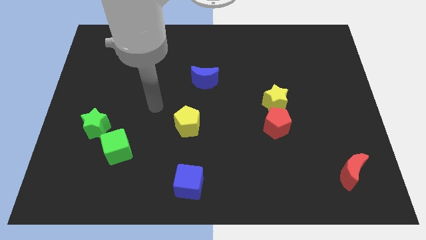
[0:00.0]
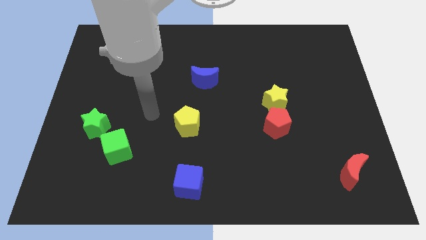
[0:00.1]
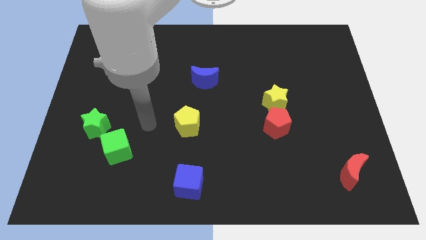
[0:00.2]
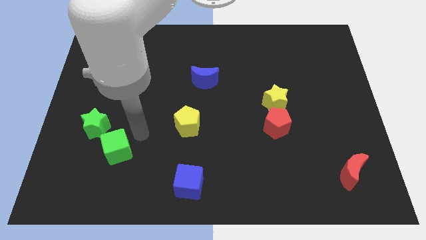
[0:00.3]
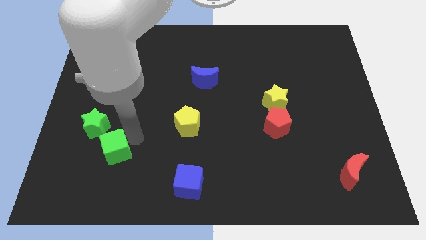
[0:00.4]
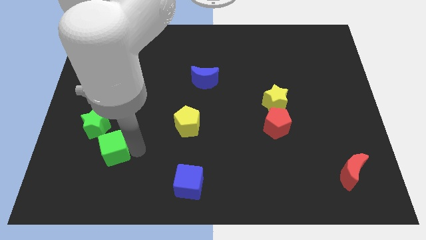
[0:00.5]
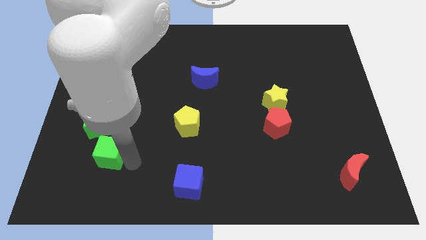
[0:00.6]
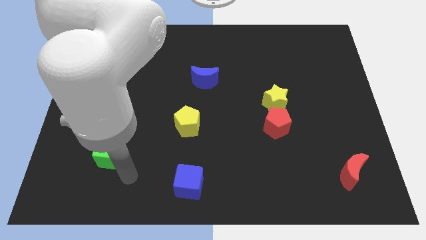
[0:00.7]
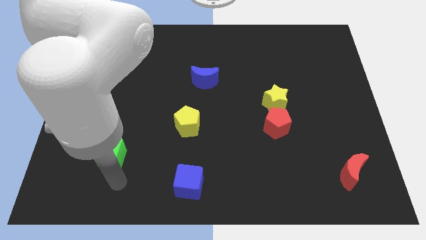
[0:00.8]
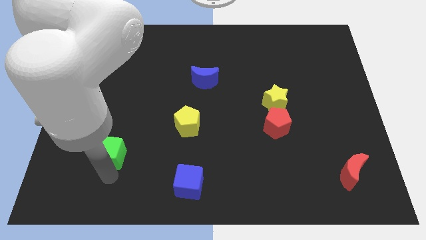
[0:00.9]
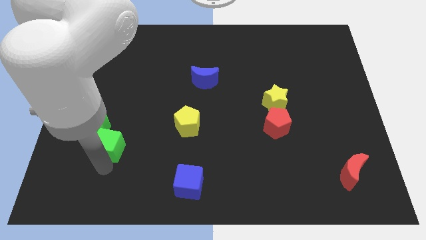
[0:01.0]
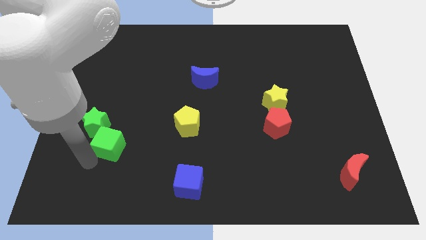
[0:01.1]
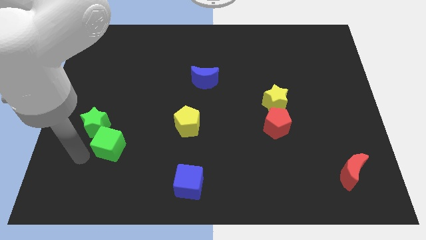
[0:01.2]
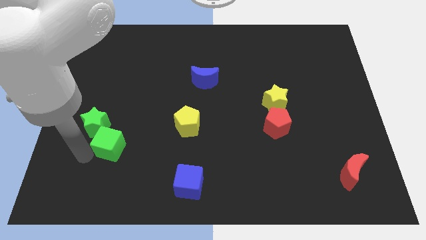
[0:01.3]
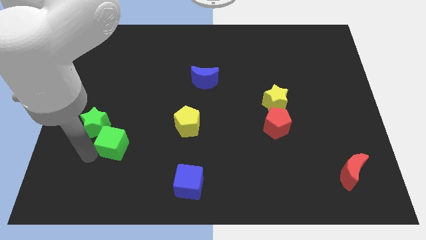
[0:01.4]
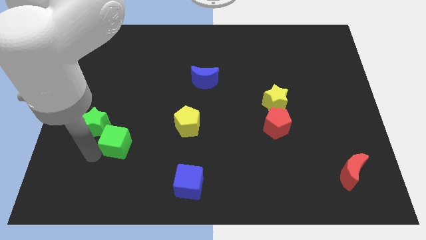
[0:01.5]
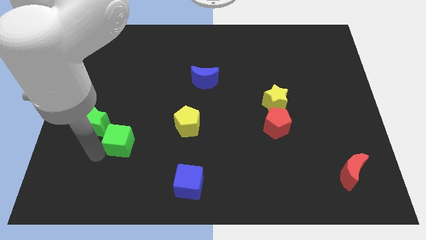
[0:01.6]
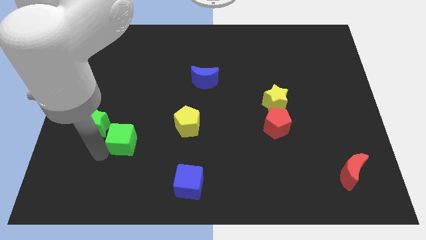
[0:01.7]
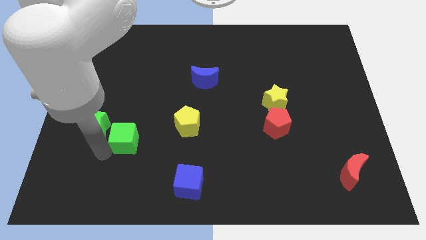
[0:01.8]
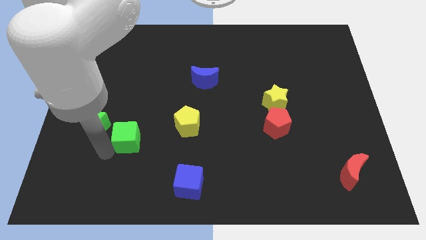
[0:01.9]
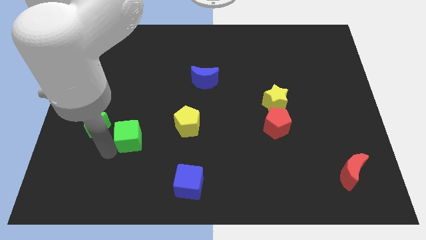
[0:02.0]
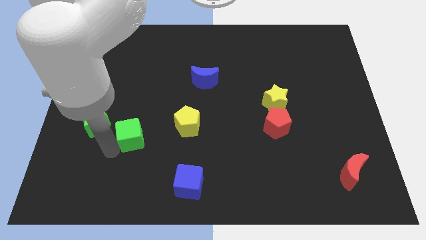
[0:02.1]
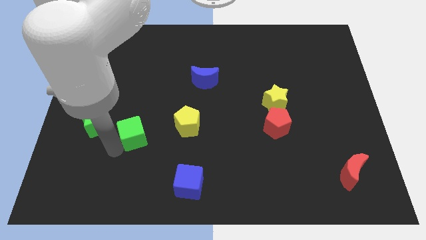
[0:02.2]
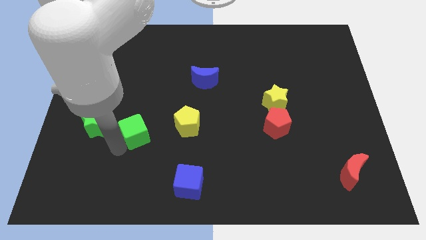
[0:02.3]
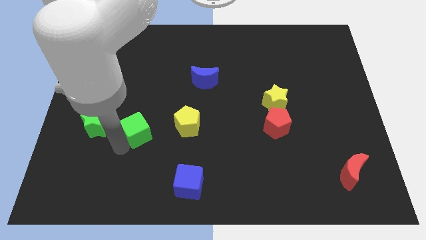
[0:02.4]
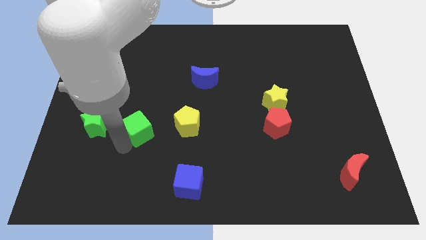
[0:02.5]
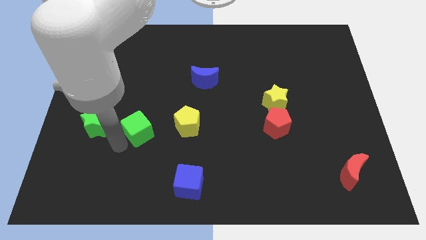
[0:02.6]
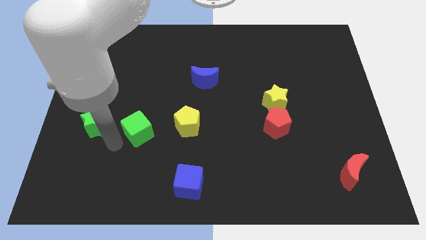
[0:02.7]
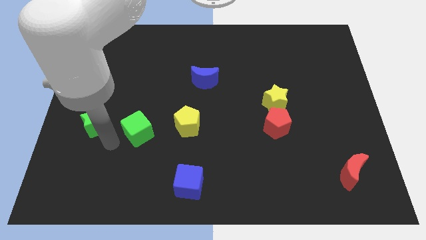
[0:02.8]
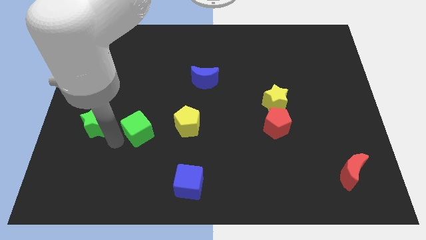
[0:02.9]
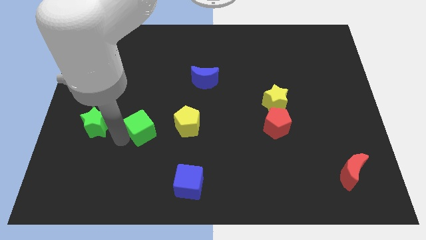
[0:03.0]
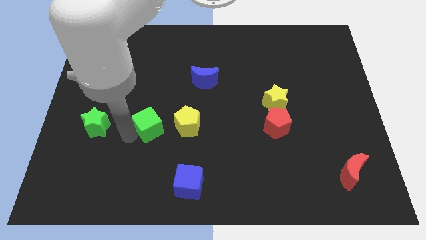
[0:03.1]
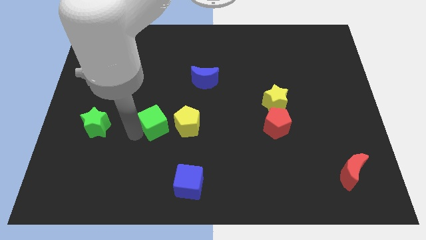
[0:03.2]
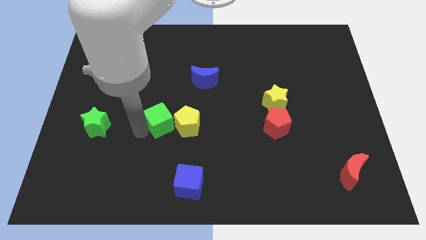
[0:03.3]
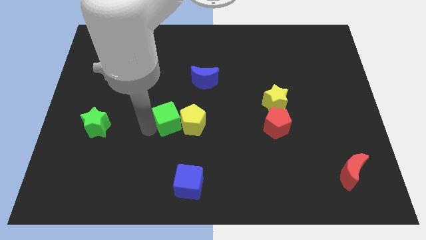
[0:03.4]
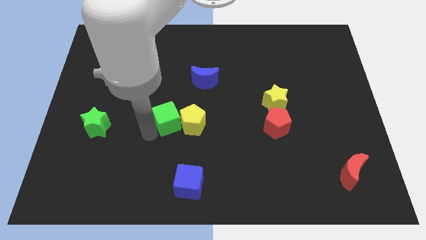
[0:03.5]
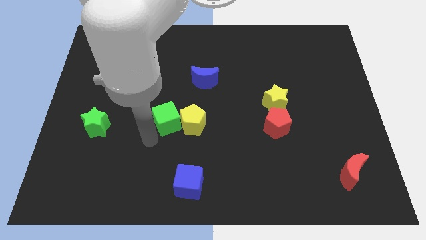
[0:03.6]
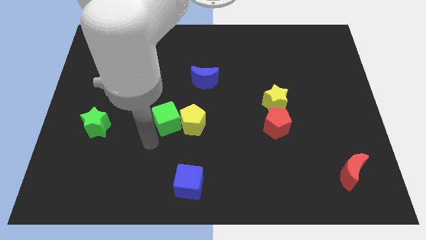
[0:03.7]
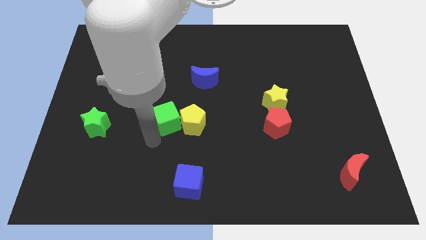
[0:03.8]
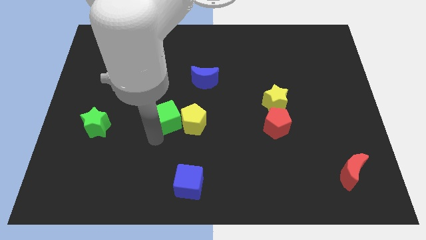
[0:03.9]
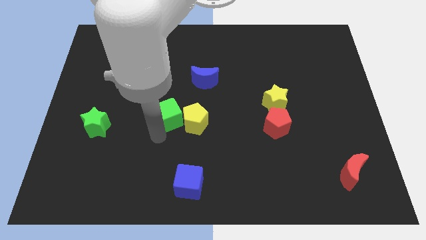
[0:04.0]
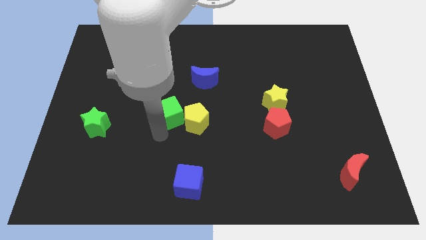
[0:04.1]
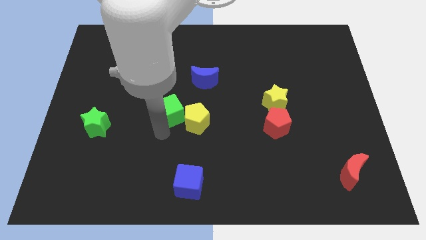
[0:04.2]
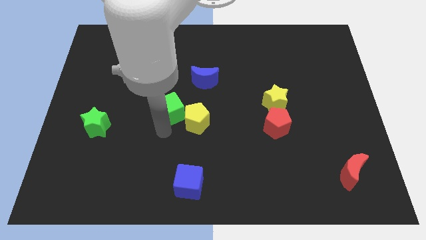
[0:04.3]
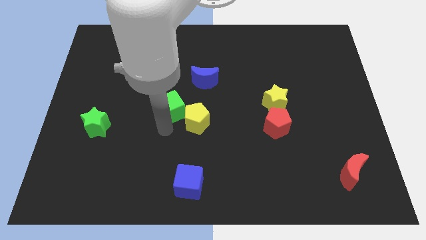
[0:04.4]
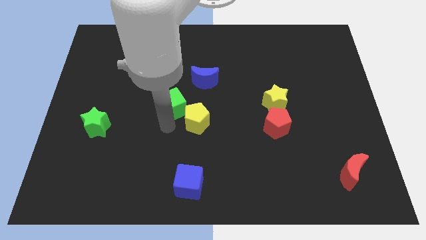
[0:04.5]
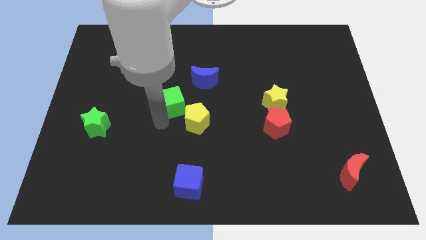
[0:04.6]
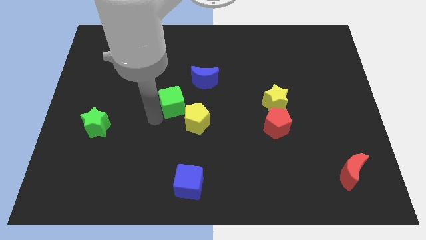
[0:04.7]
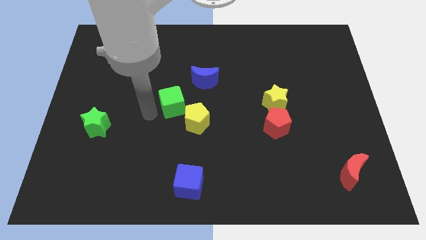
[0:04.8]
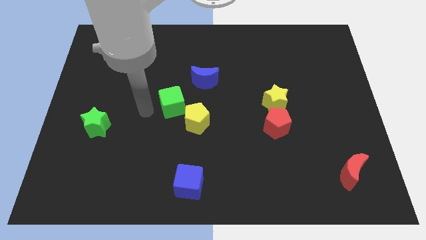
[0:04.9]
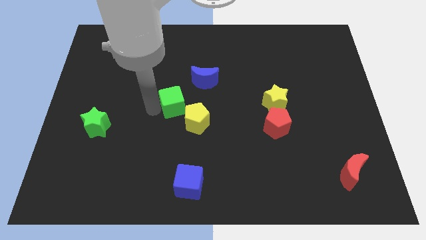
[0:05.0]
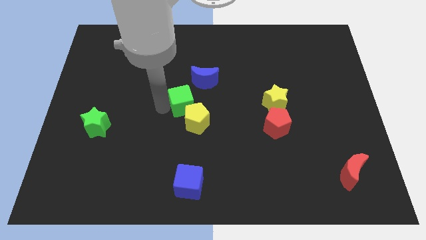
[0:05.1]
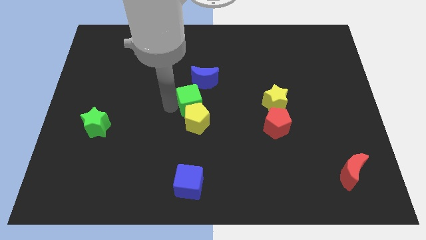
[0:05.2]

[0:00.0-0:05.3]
move the green cube diagonally upwards and to the right

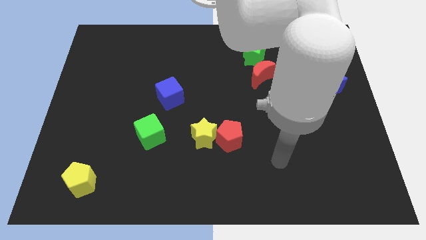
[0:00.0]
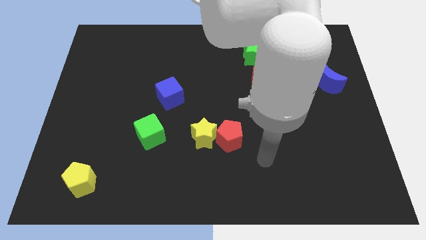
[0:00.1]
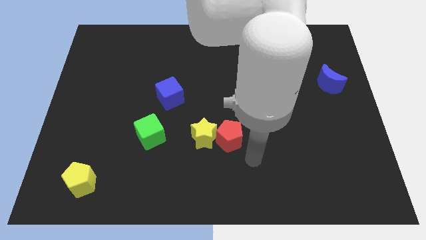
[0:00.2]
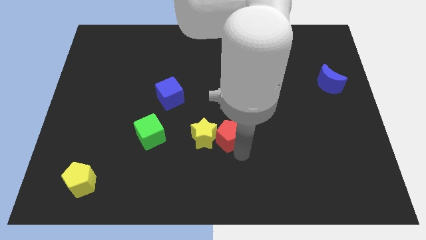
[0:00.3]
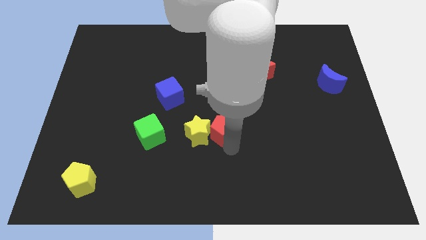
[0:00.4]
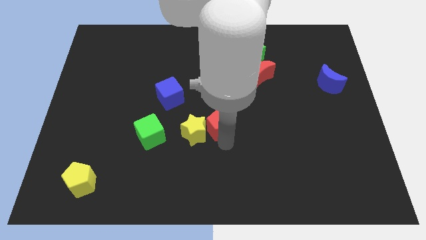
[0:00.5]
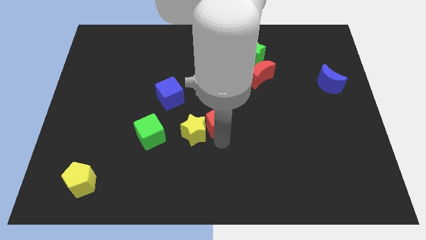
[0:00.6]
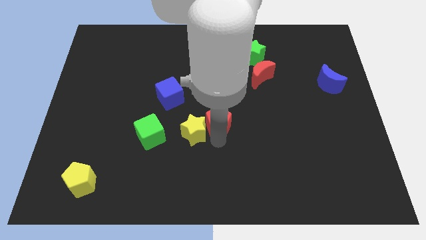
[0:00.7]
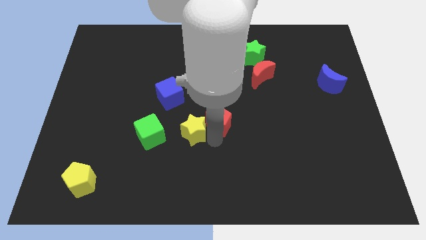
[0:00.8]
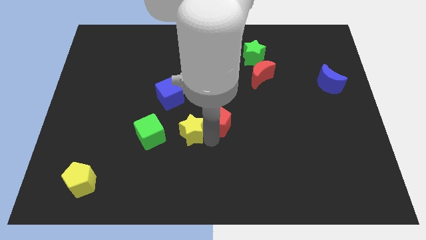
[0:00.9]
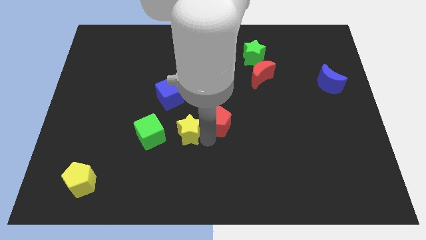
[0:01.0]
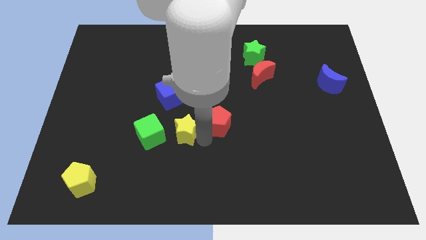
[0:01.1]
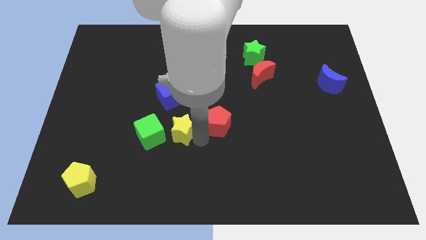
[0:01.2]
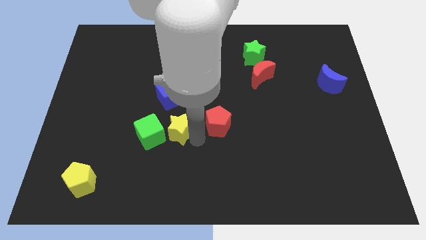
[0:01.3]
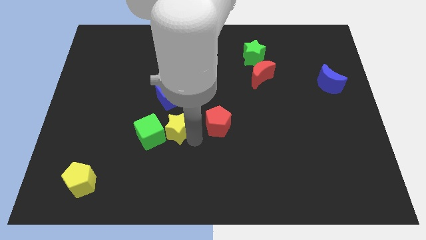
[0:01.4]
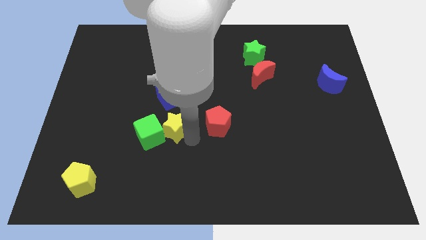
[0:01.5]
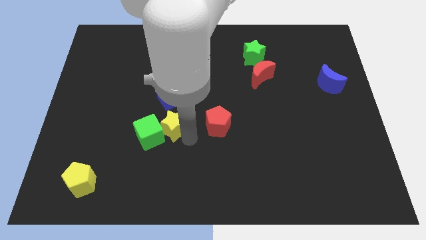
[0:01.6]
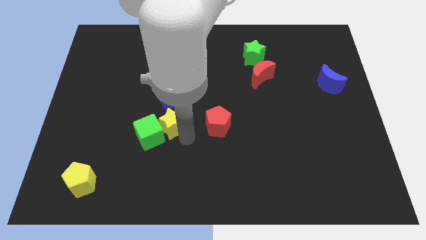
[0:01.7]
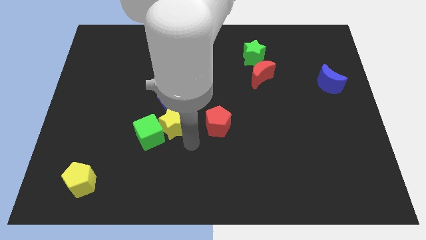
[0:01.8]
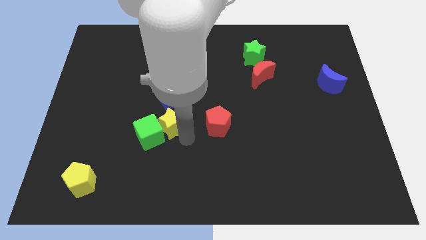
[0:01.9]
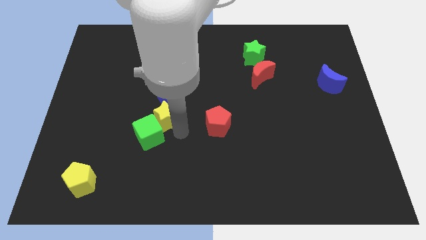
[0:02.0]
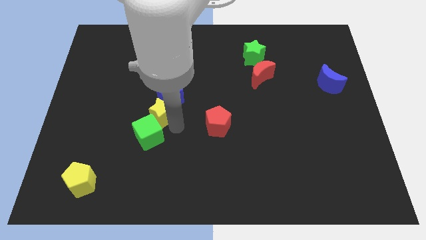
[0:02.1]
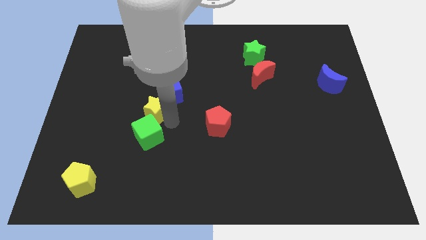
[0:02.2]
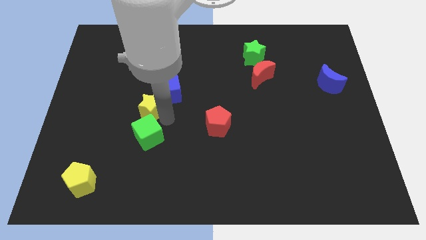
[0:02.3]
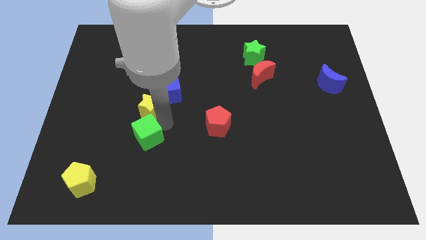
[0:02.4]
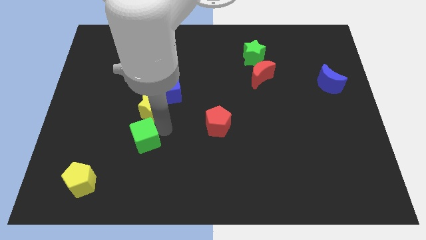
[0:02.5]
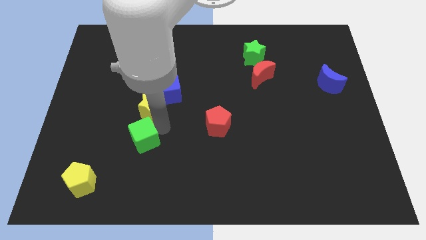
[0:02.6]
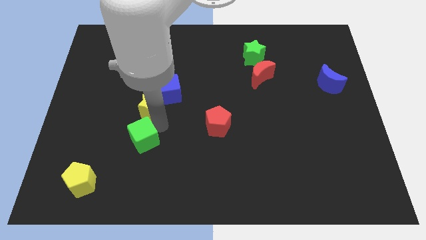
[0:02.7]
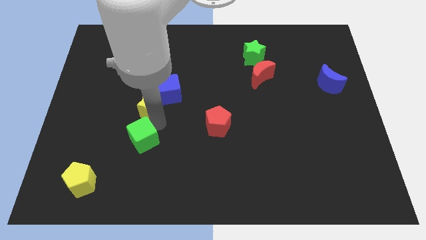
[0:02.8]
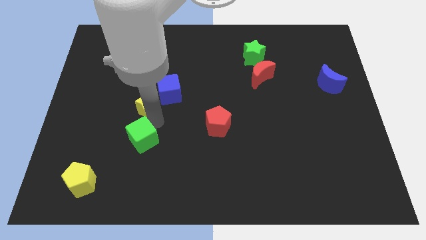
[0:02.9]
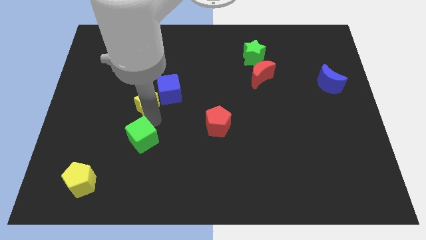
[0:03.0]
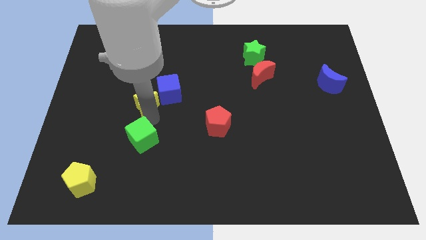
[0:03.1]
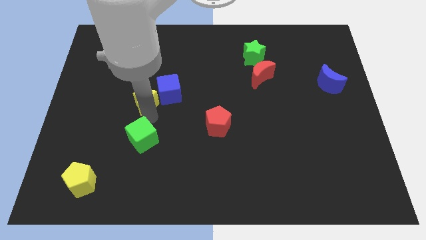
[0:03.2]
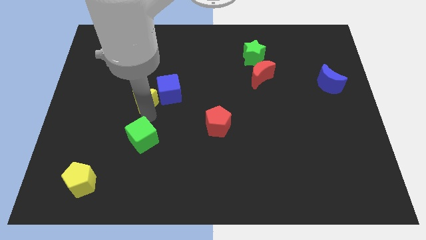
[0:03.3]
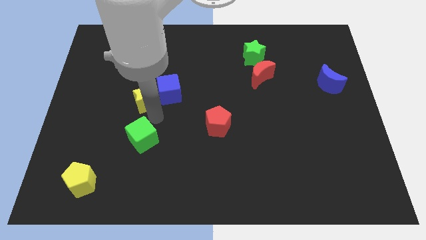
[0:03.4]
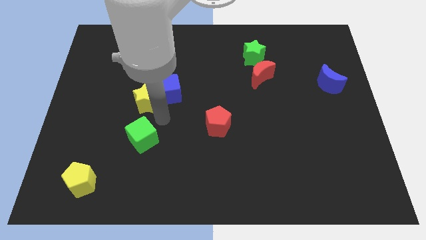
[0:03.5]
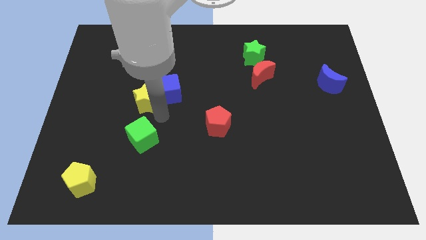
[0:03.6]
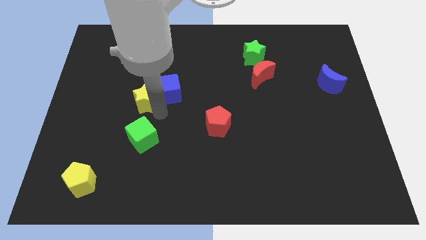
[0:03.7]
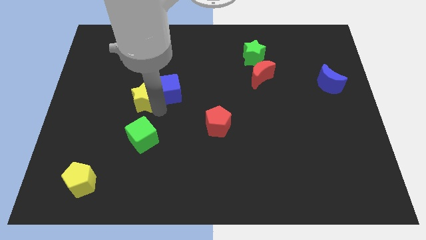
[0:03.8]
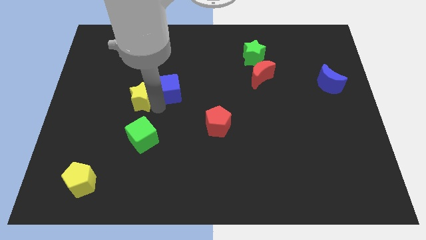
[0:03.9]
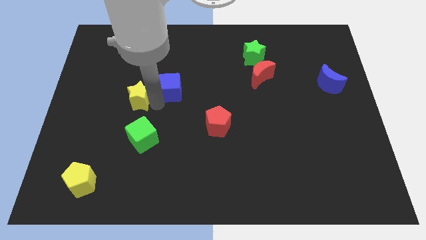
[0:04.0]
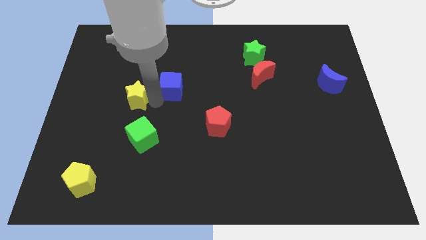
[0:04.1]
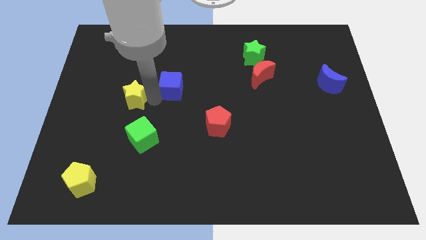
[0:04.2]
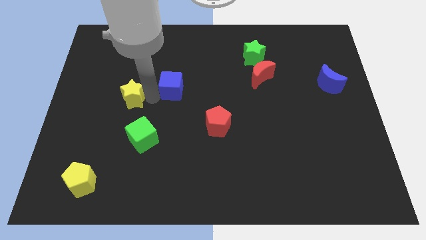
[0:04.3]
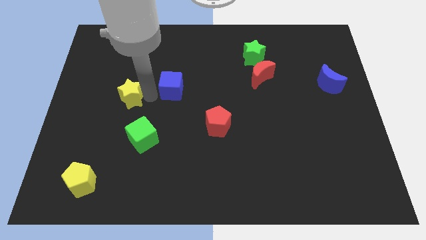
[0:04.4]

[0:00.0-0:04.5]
slide the yellow star up and to the left
